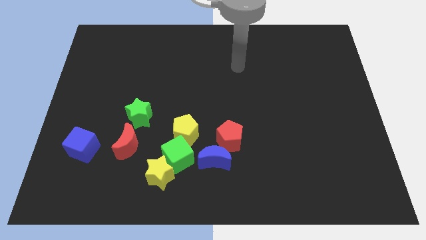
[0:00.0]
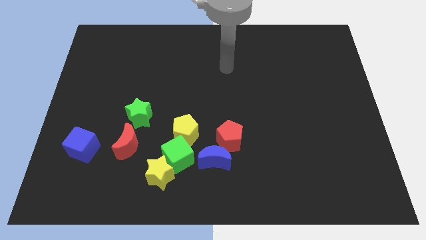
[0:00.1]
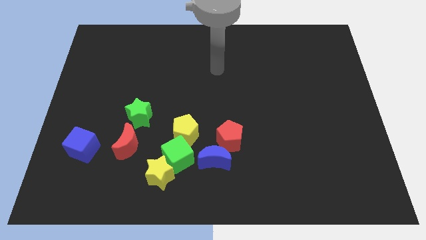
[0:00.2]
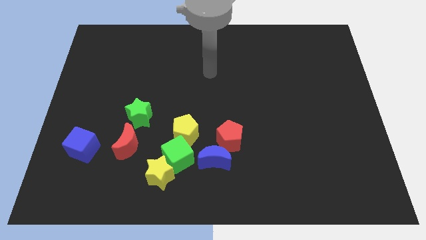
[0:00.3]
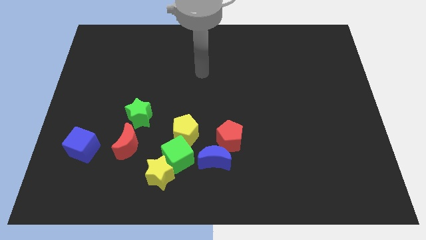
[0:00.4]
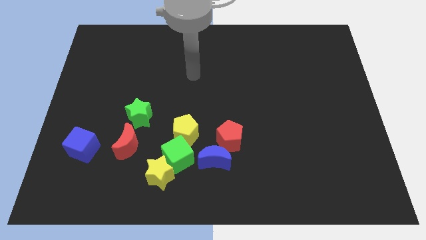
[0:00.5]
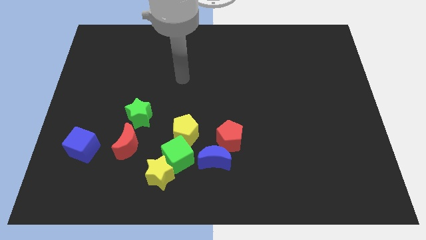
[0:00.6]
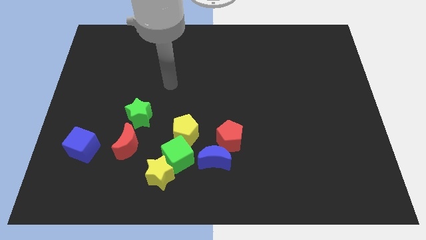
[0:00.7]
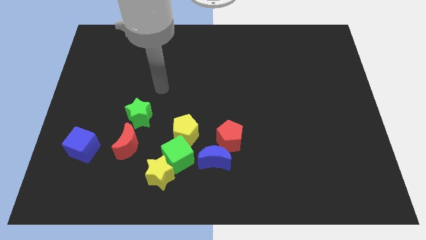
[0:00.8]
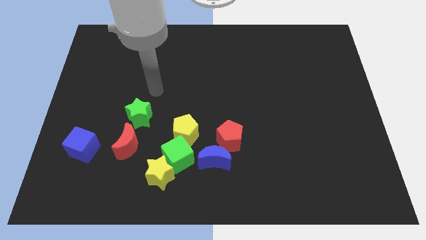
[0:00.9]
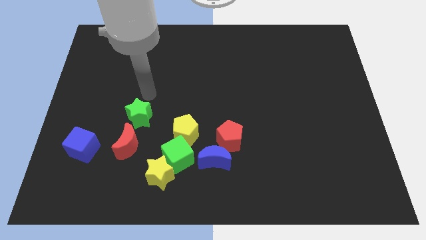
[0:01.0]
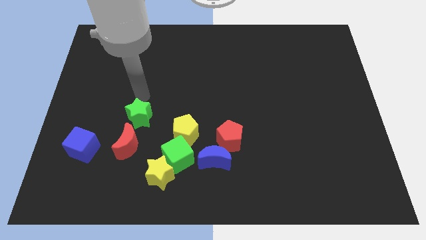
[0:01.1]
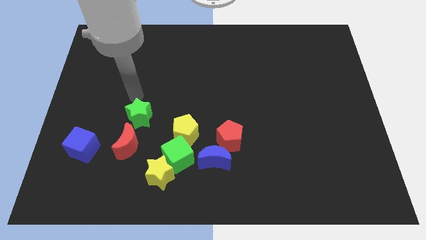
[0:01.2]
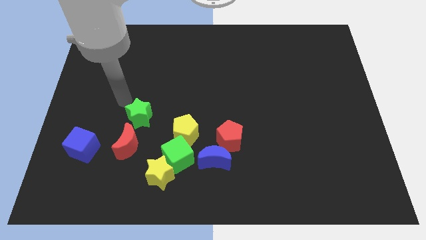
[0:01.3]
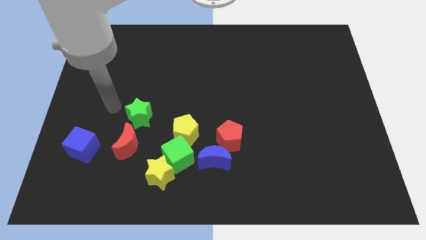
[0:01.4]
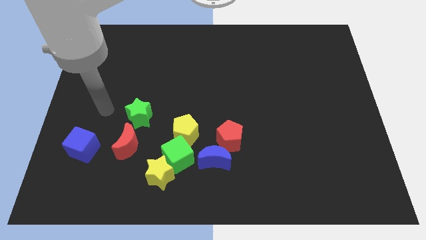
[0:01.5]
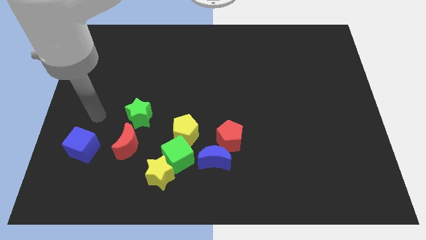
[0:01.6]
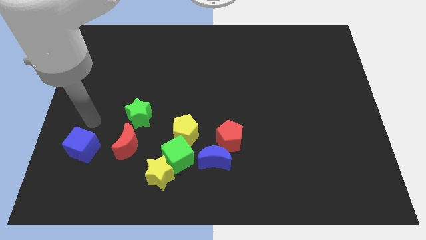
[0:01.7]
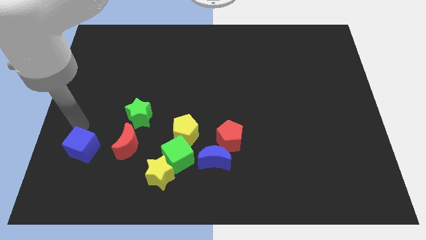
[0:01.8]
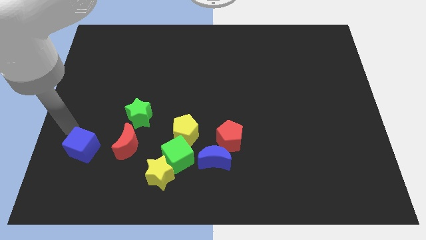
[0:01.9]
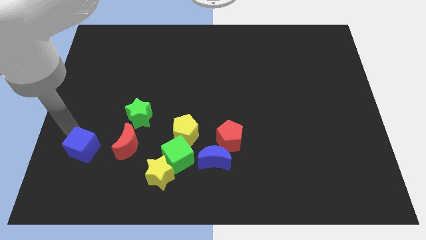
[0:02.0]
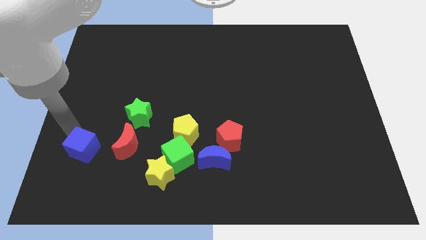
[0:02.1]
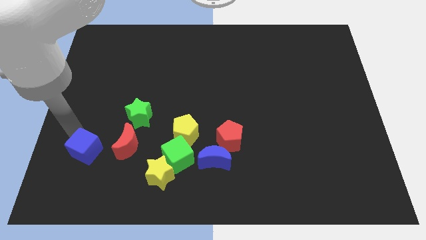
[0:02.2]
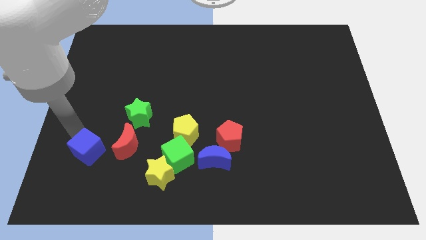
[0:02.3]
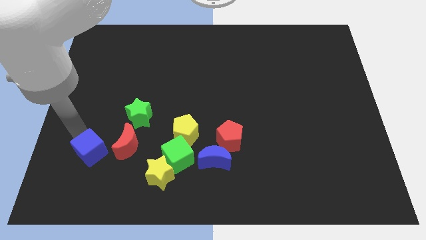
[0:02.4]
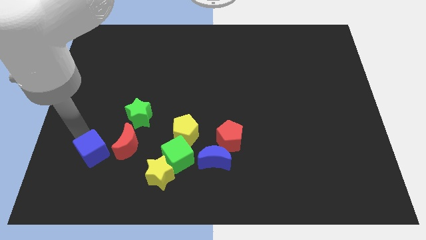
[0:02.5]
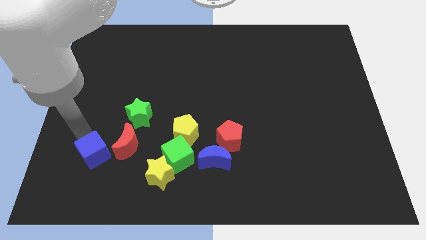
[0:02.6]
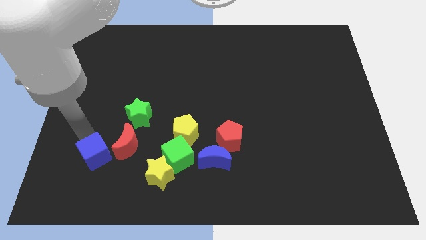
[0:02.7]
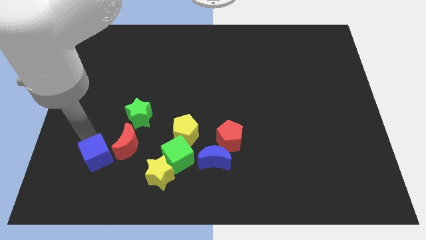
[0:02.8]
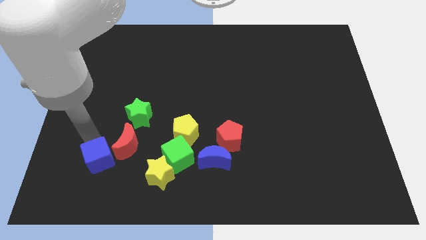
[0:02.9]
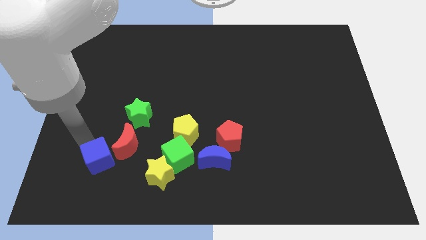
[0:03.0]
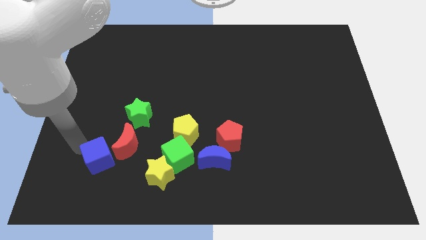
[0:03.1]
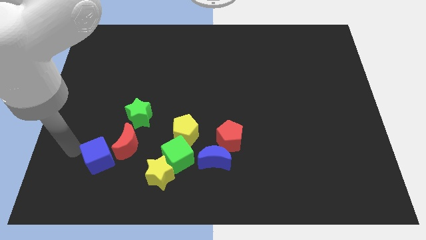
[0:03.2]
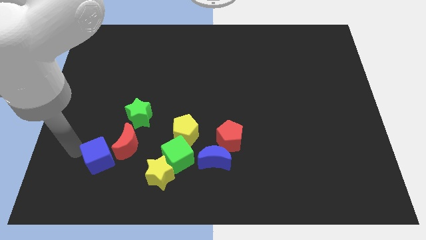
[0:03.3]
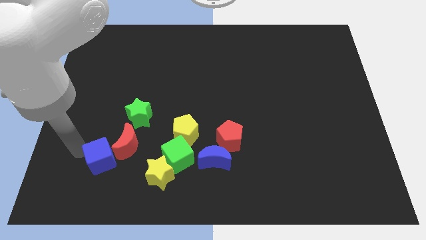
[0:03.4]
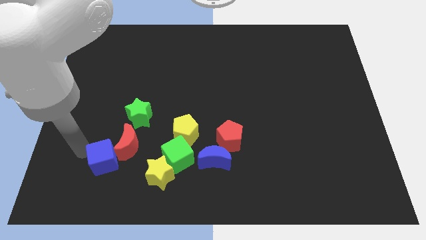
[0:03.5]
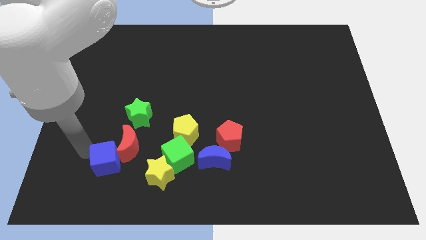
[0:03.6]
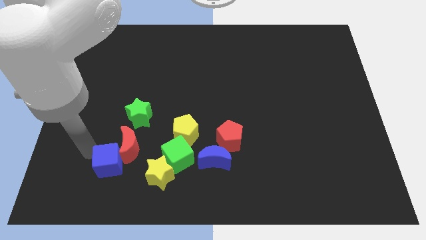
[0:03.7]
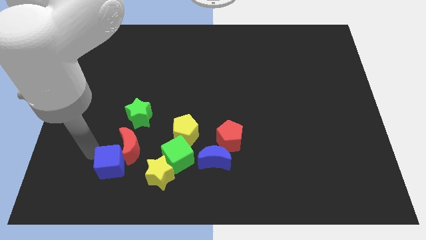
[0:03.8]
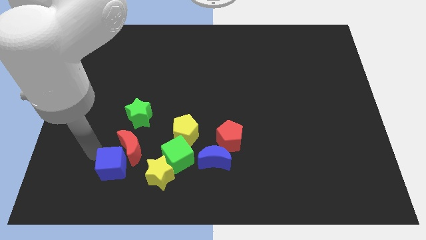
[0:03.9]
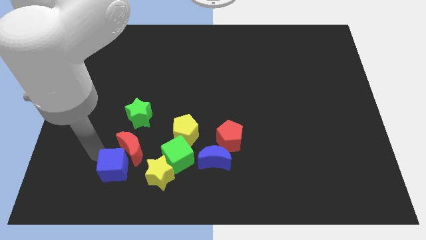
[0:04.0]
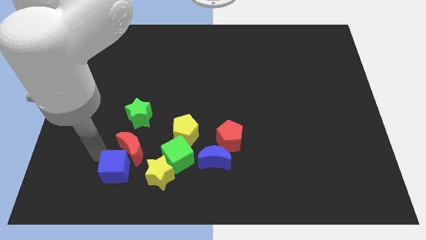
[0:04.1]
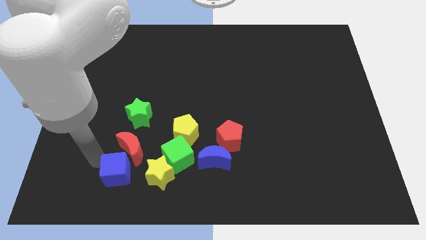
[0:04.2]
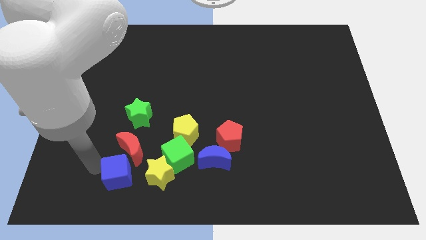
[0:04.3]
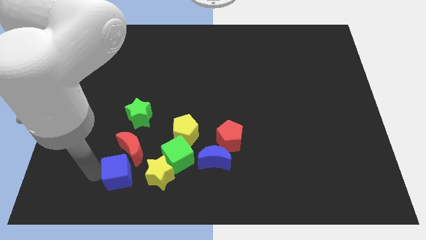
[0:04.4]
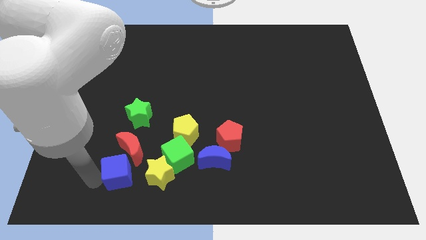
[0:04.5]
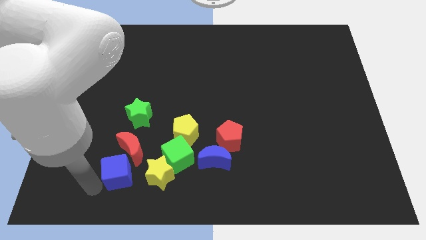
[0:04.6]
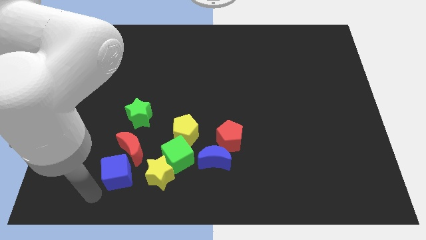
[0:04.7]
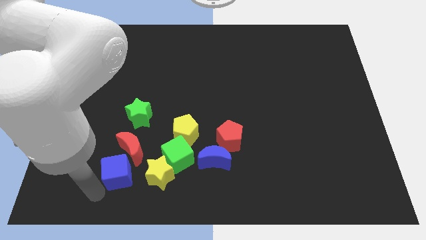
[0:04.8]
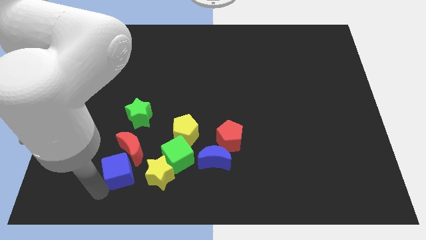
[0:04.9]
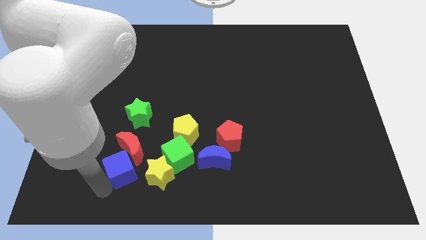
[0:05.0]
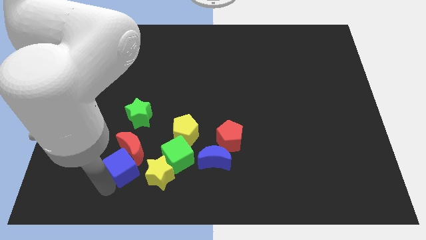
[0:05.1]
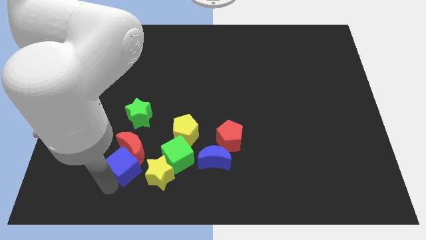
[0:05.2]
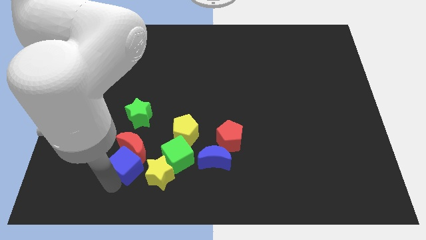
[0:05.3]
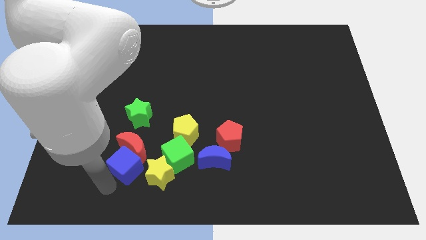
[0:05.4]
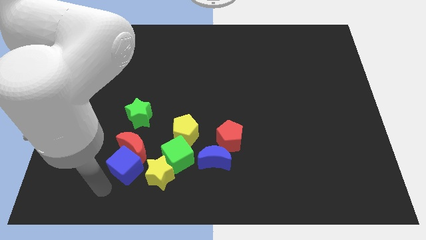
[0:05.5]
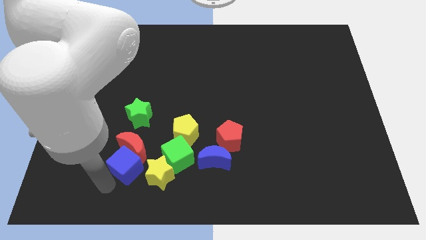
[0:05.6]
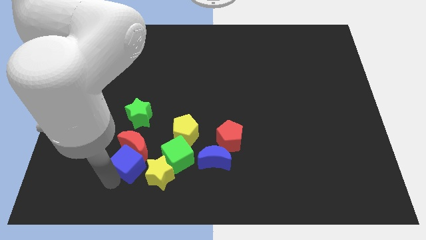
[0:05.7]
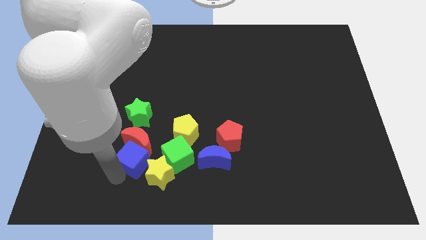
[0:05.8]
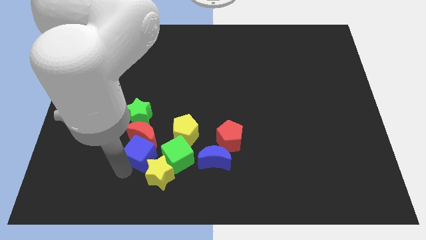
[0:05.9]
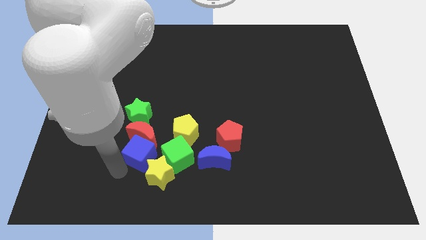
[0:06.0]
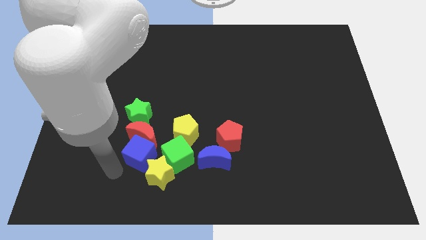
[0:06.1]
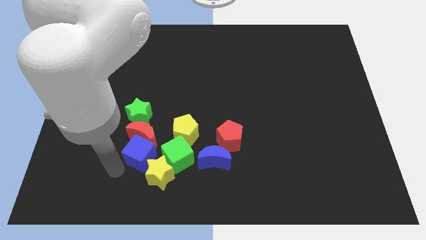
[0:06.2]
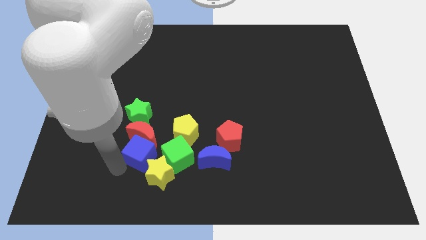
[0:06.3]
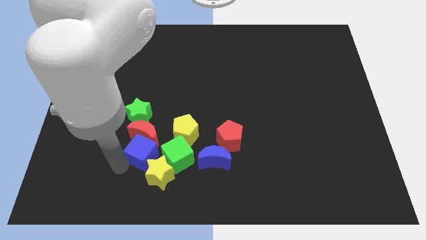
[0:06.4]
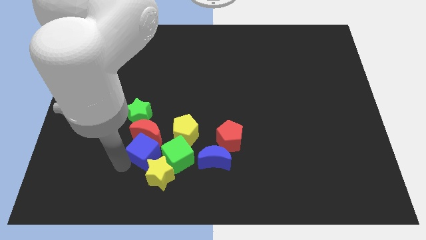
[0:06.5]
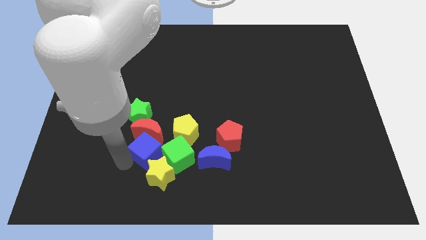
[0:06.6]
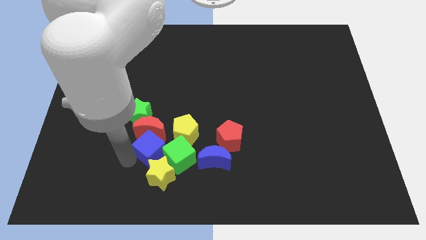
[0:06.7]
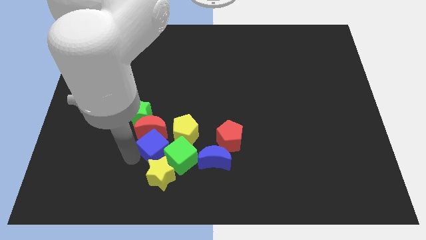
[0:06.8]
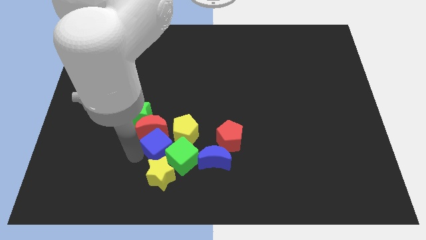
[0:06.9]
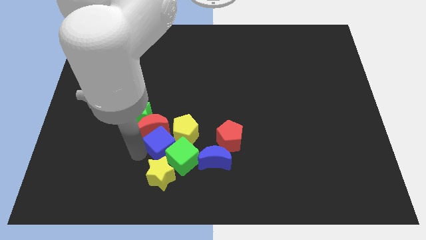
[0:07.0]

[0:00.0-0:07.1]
put the blue cube next to the yellow pentagon
